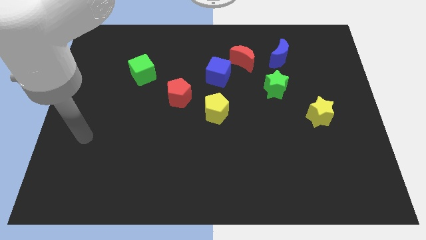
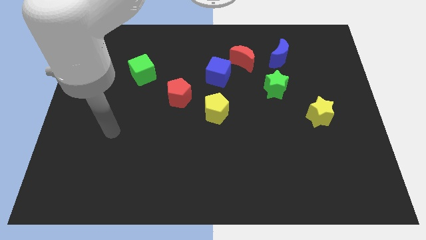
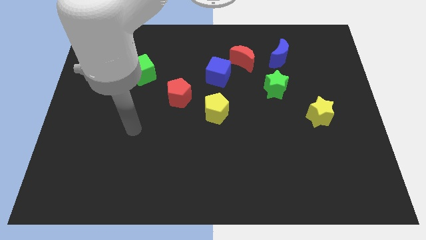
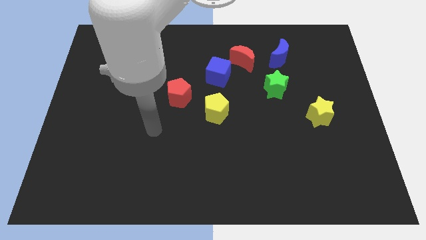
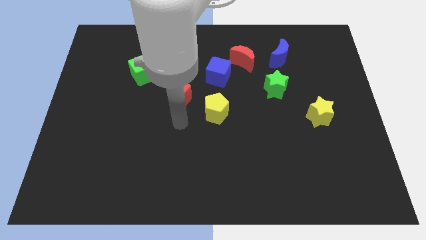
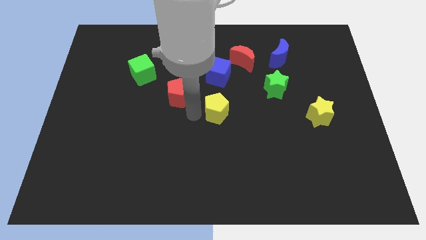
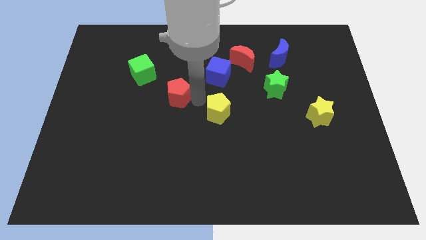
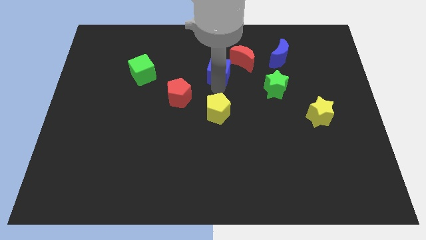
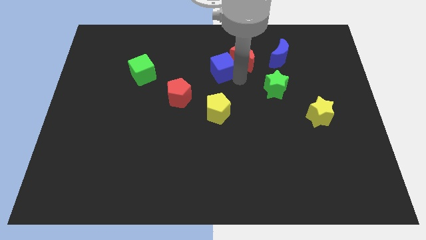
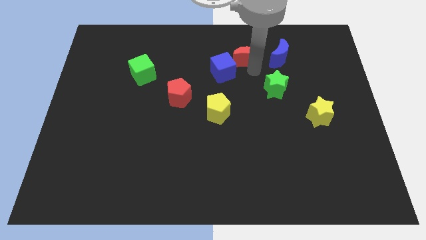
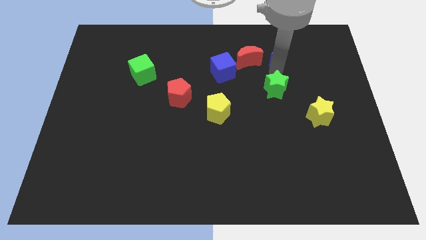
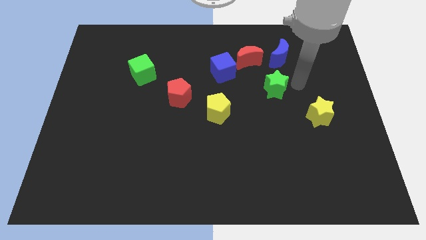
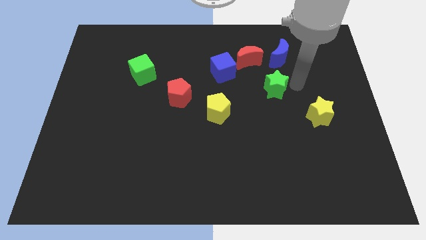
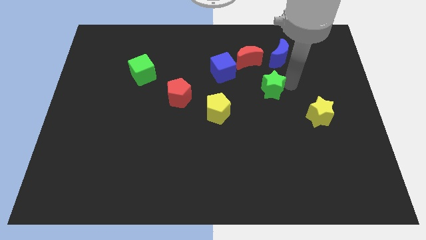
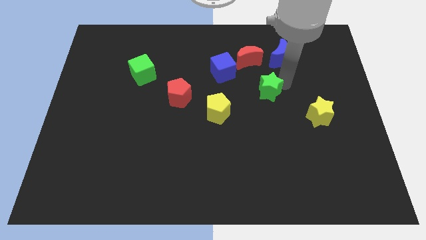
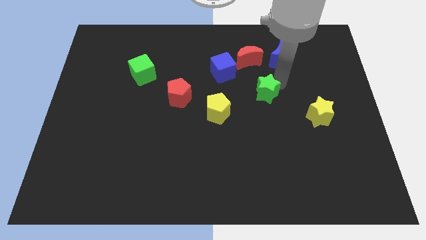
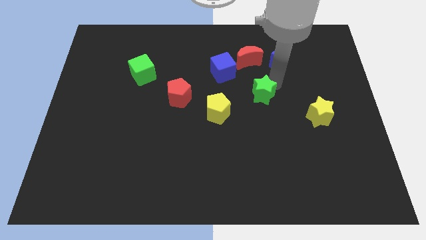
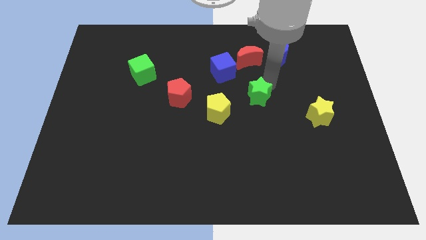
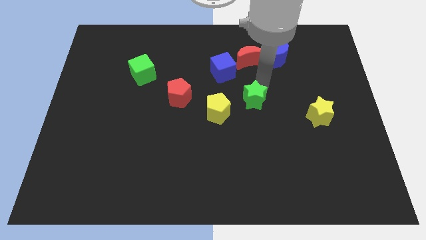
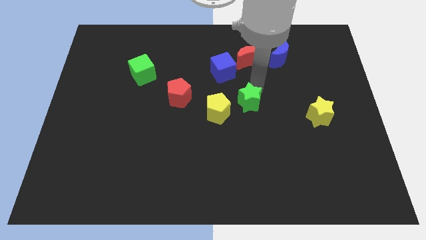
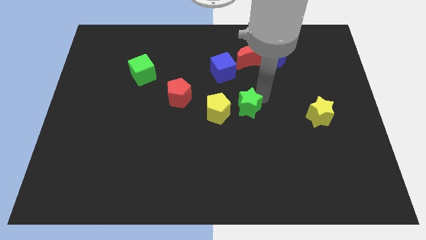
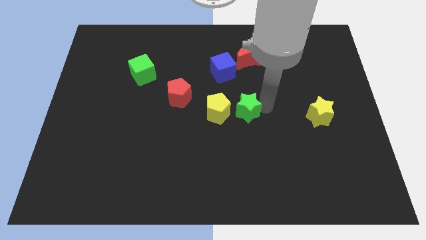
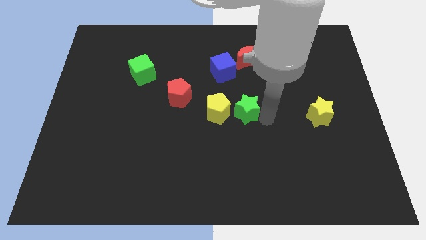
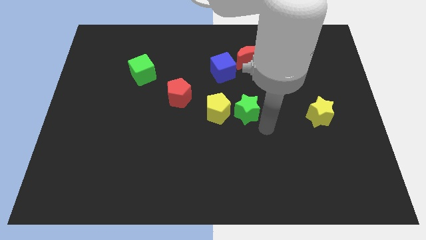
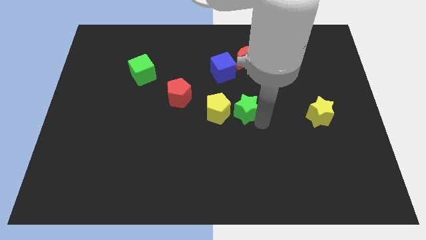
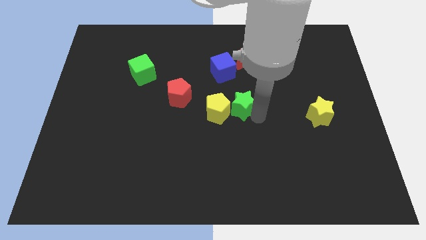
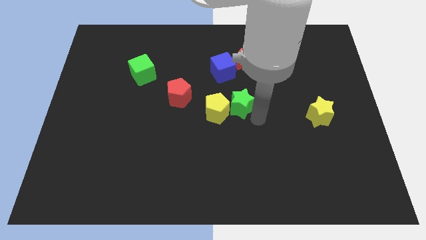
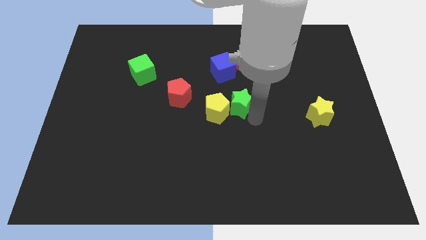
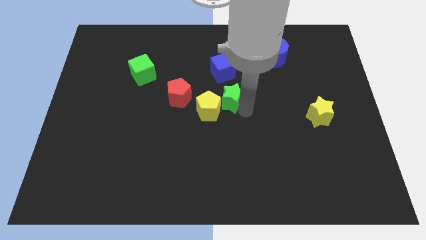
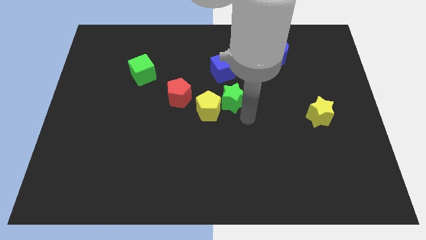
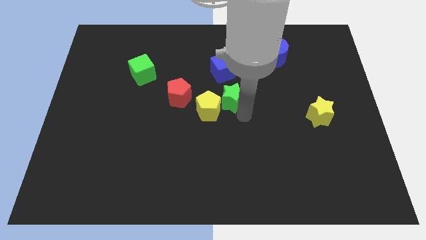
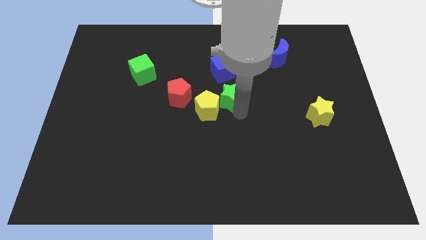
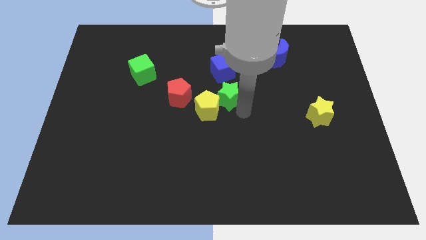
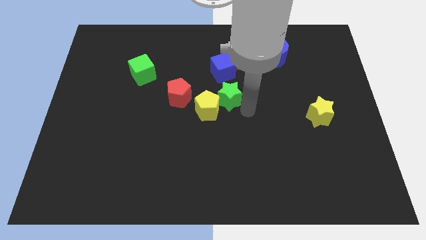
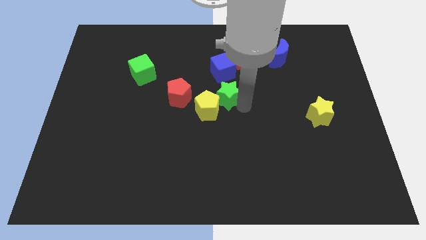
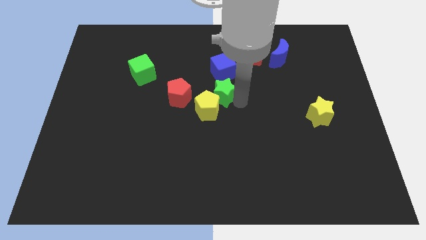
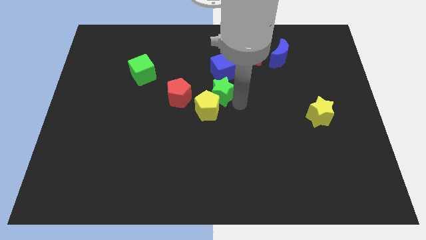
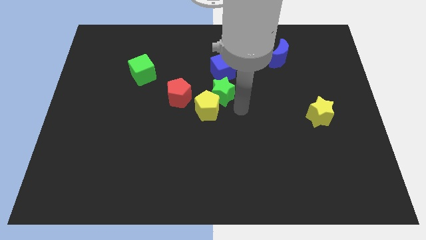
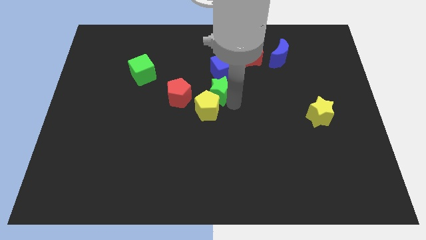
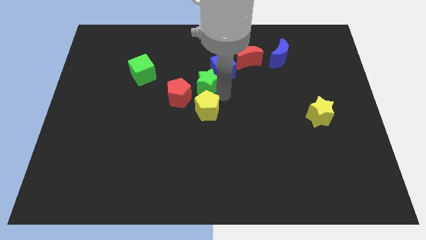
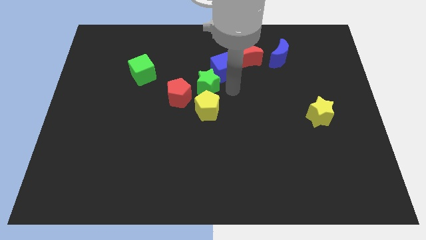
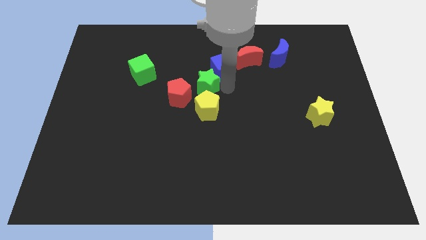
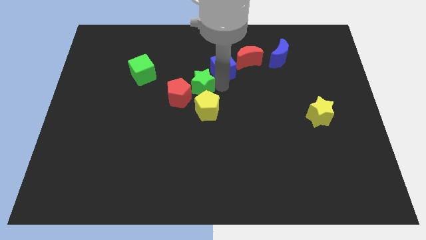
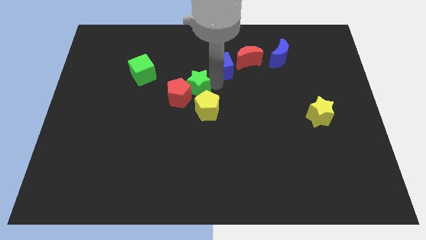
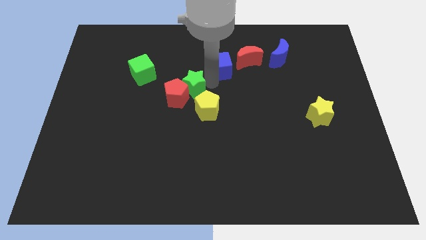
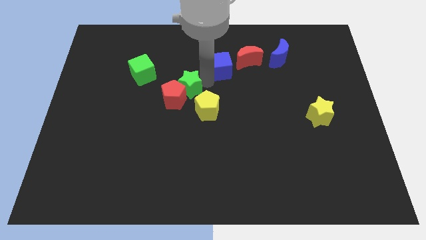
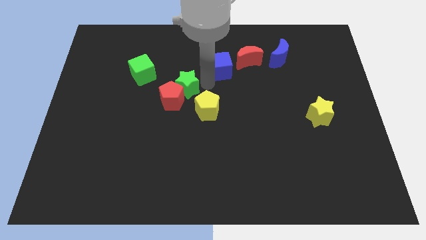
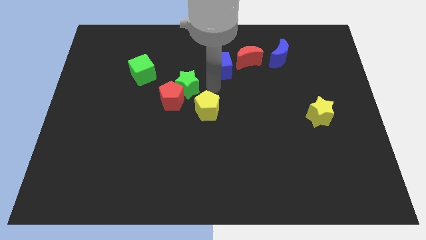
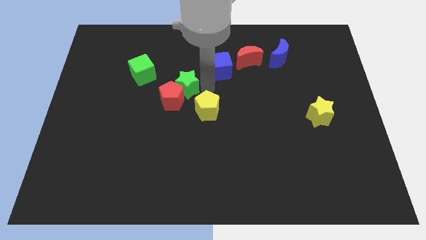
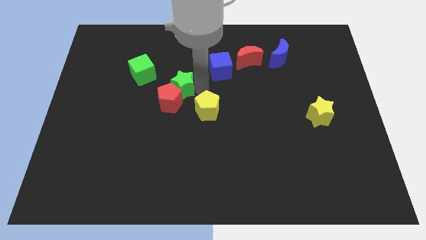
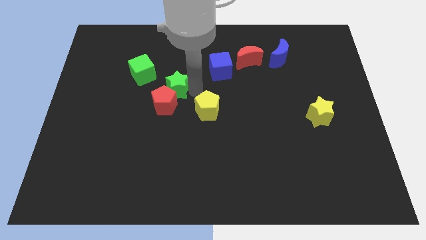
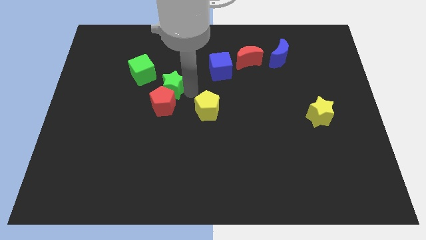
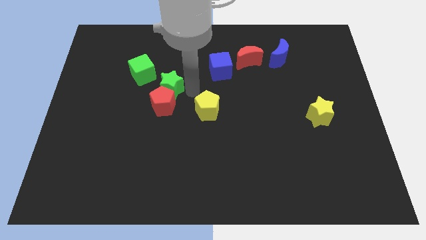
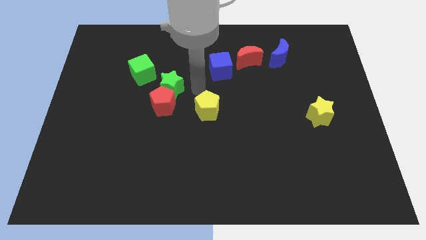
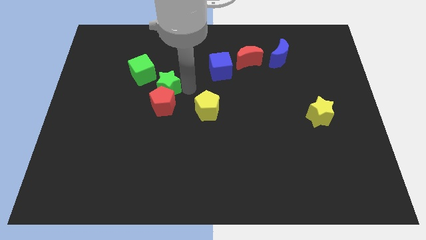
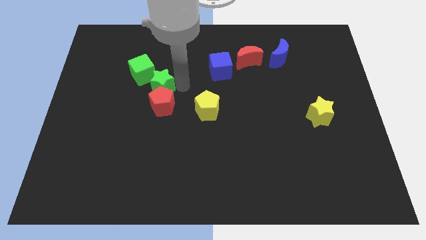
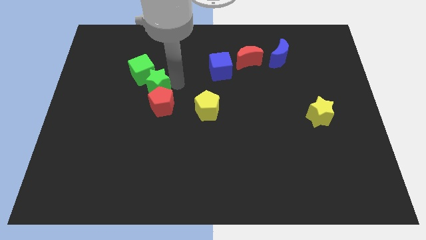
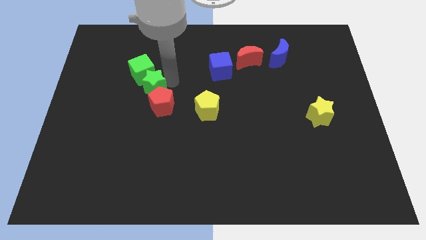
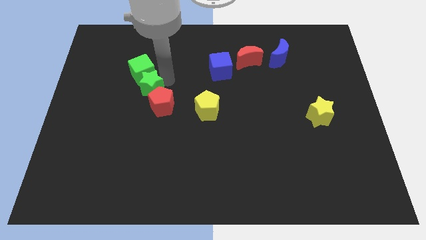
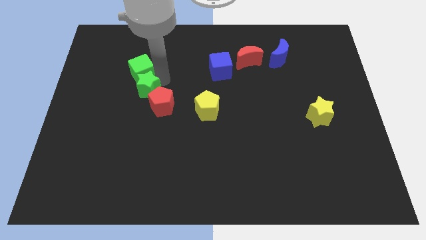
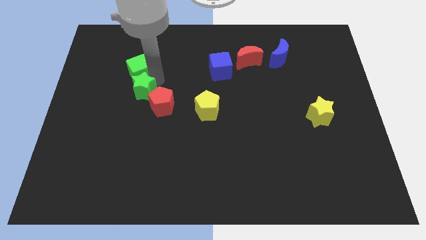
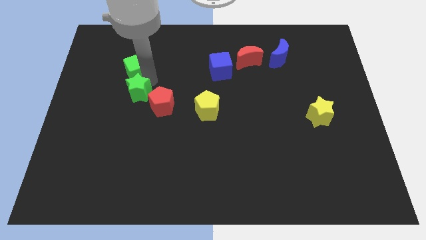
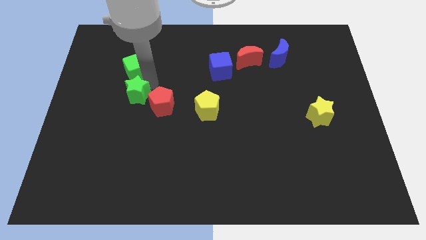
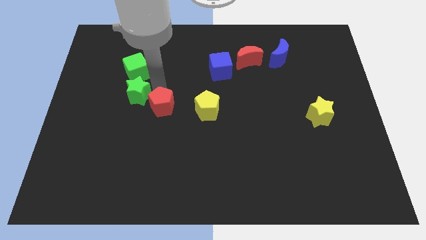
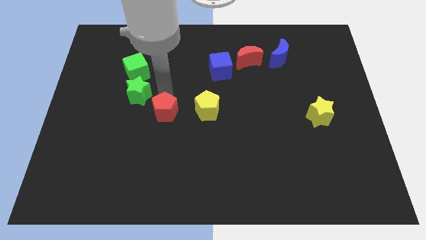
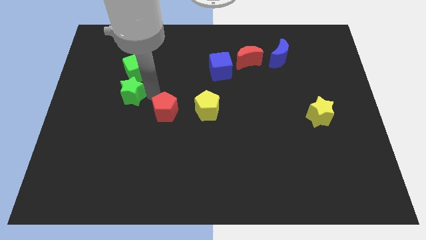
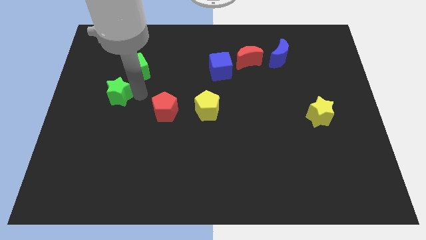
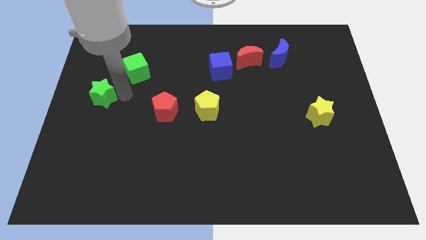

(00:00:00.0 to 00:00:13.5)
push the green star to the left side

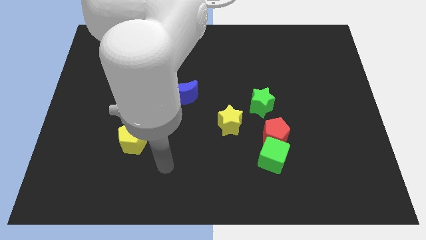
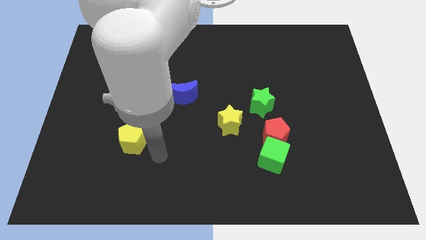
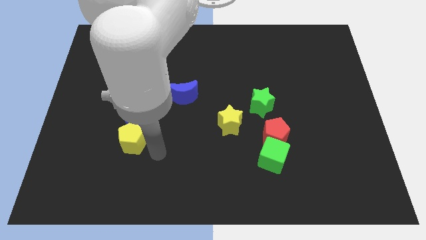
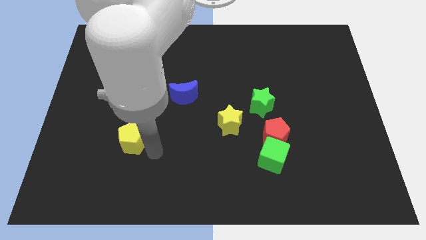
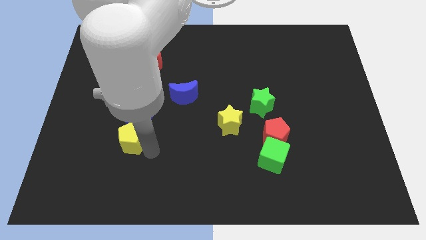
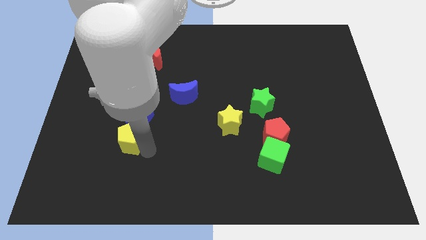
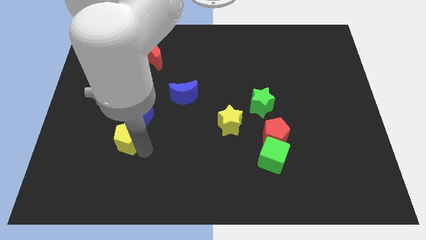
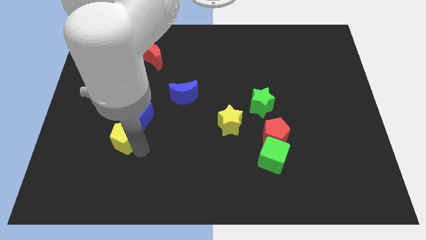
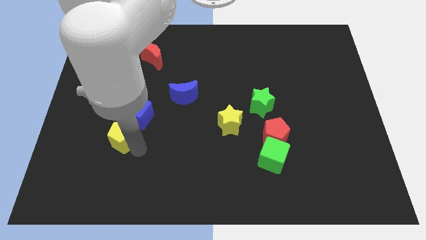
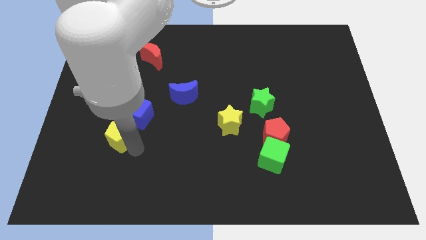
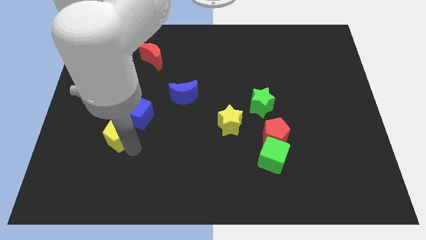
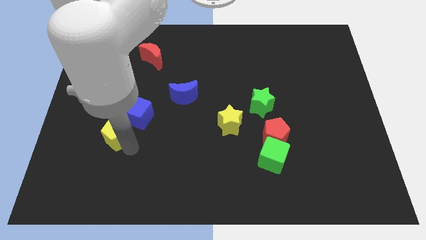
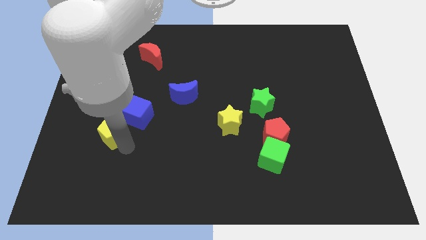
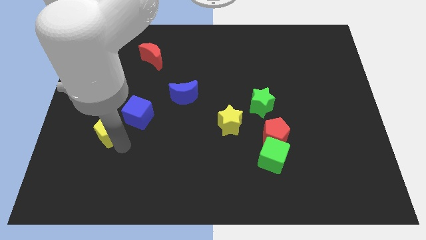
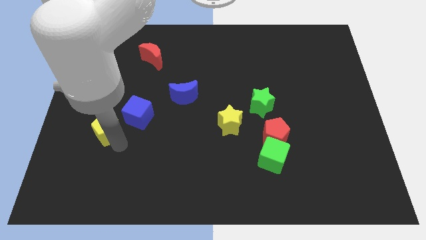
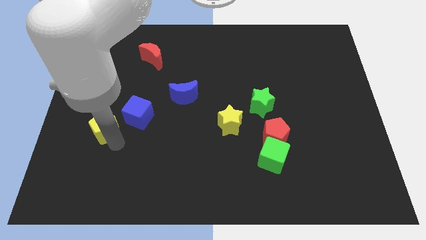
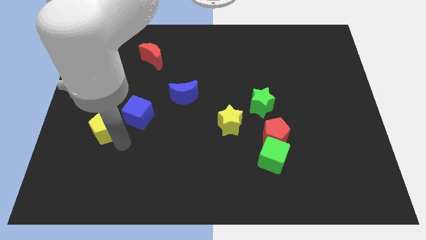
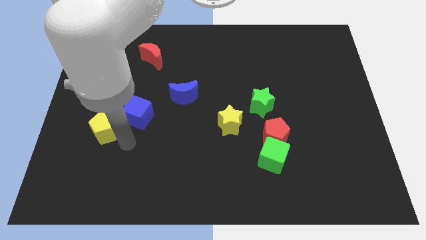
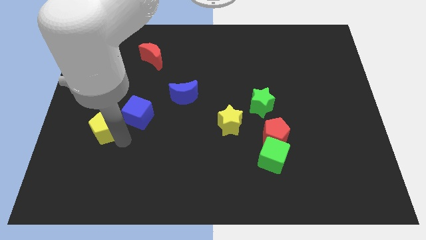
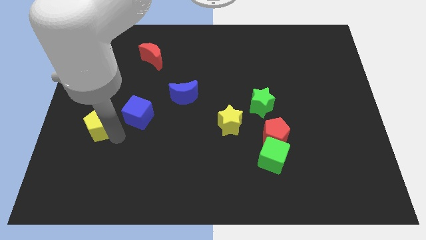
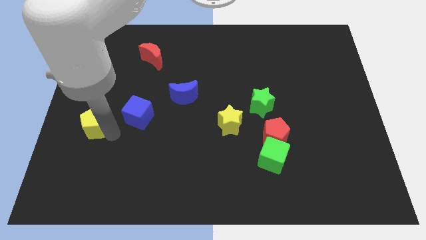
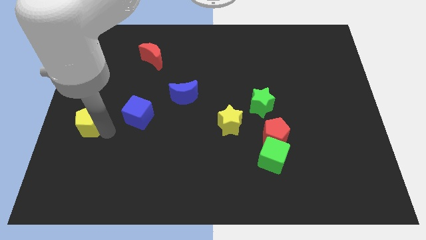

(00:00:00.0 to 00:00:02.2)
slide the yellow pentagon to the center left
